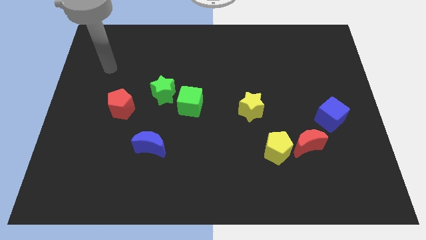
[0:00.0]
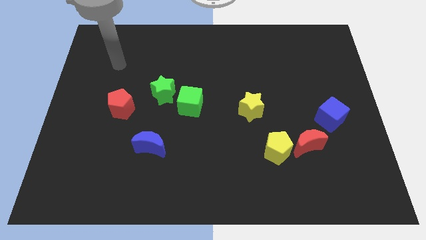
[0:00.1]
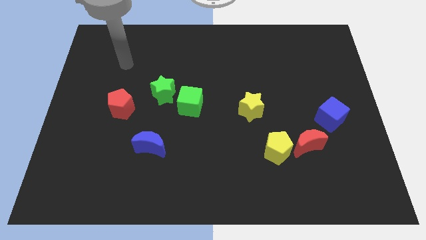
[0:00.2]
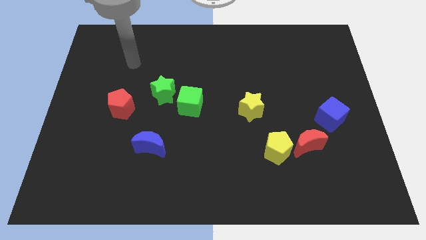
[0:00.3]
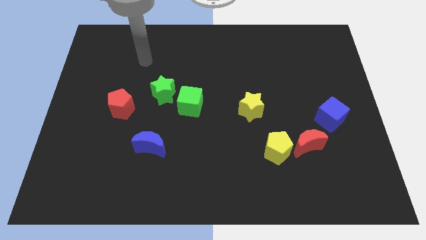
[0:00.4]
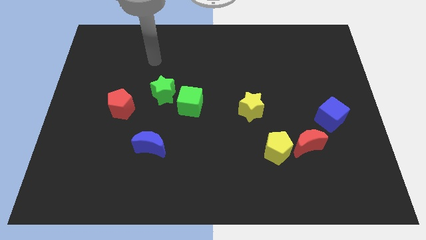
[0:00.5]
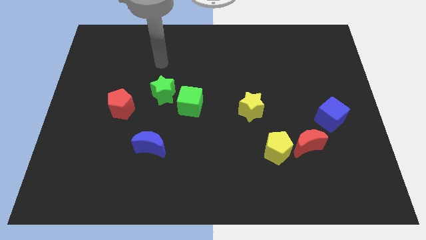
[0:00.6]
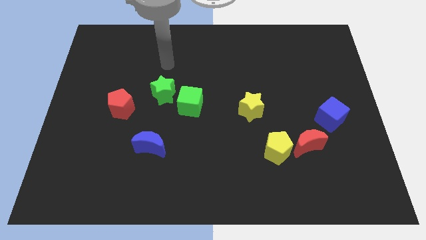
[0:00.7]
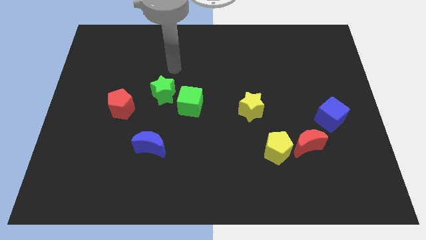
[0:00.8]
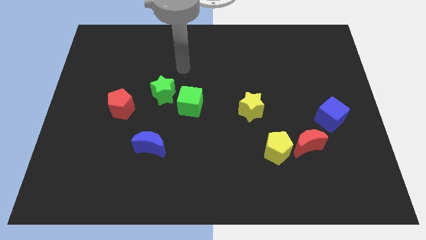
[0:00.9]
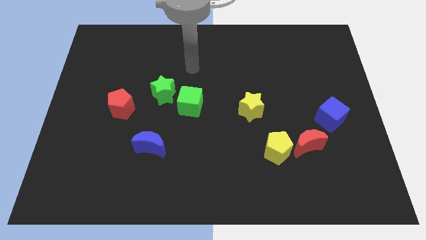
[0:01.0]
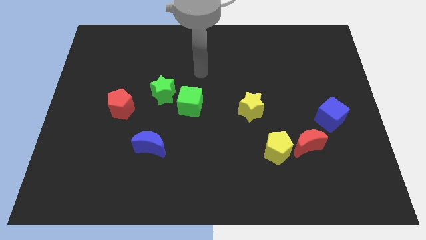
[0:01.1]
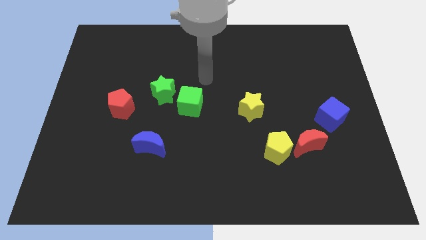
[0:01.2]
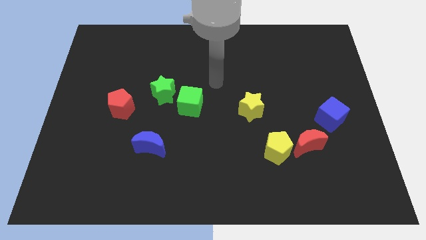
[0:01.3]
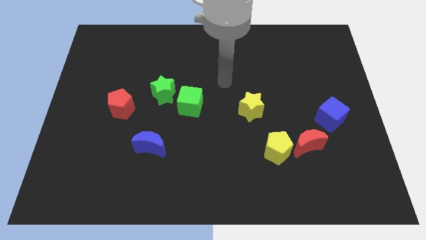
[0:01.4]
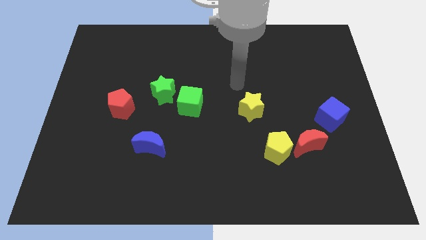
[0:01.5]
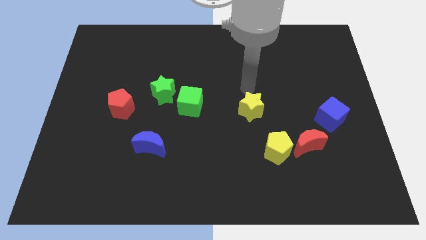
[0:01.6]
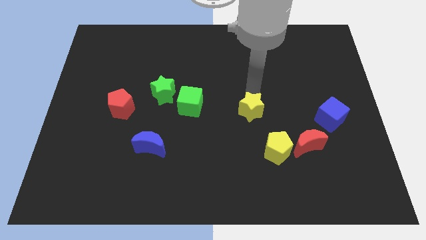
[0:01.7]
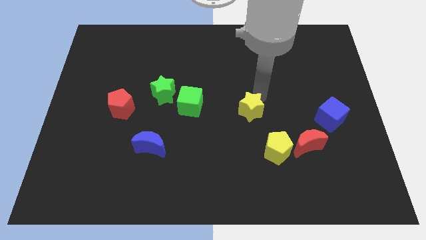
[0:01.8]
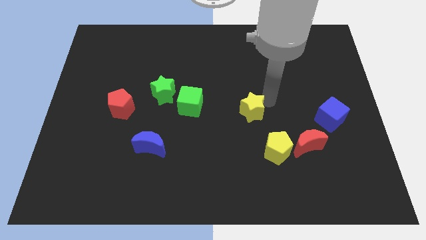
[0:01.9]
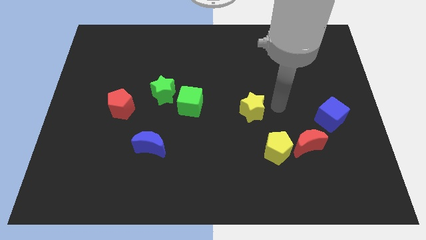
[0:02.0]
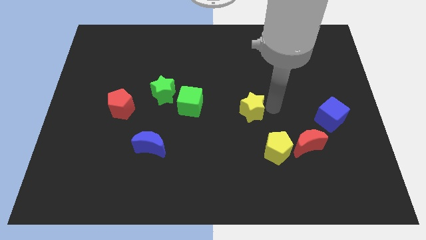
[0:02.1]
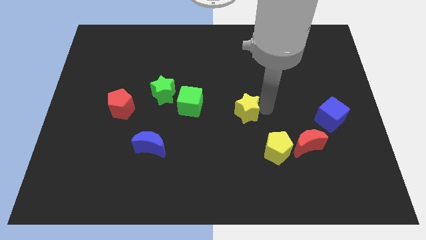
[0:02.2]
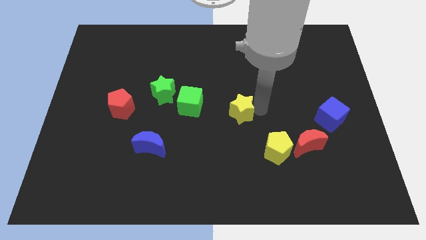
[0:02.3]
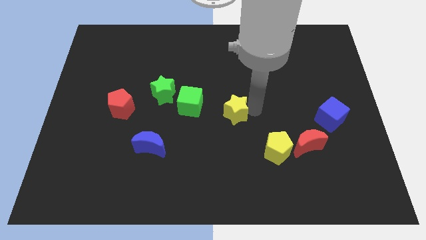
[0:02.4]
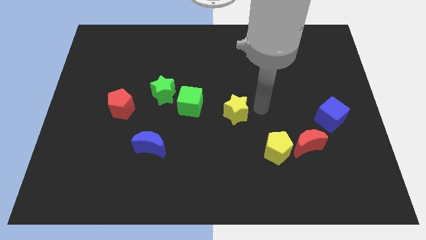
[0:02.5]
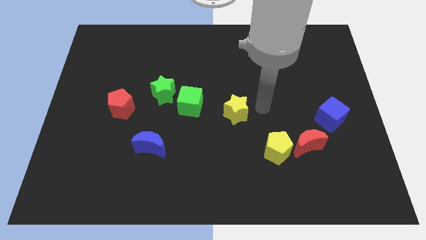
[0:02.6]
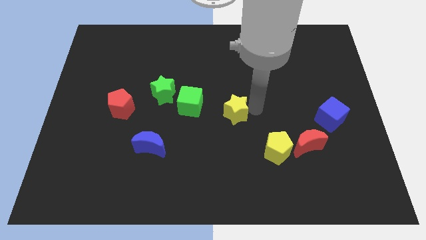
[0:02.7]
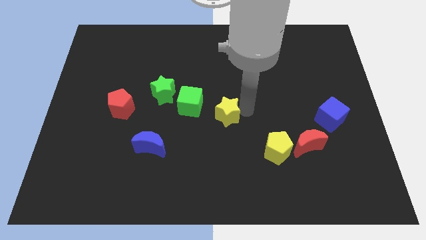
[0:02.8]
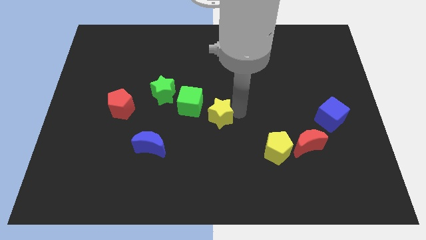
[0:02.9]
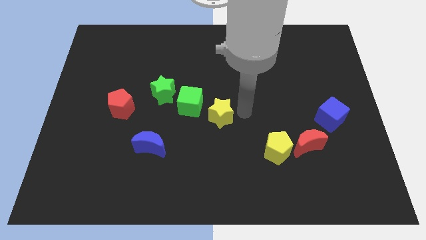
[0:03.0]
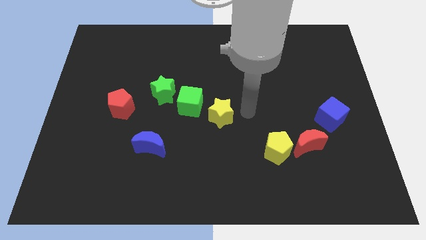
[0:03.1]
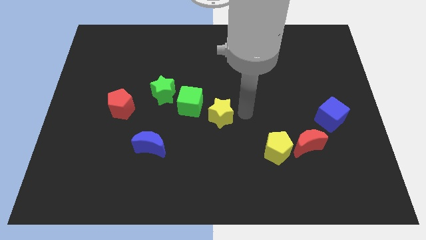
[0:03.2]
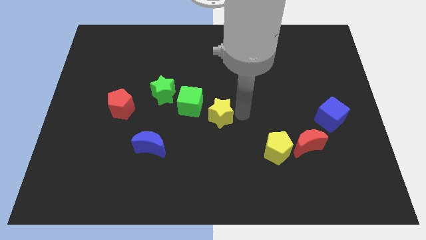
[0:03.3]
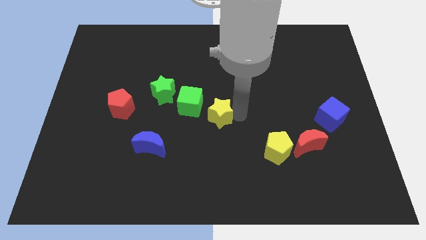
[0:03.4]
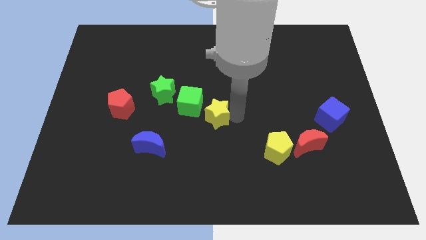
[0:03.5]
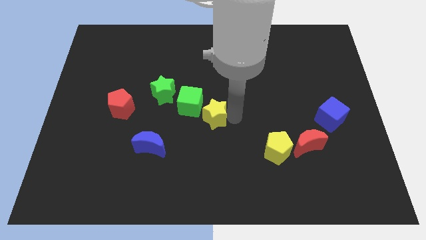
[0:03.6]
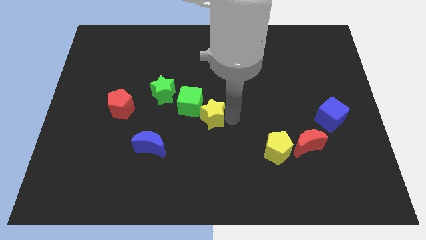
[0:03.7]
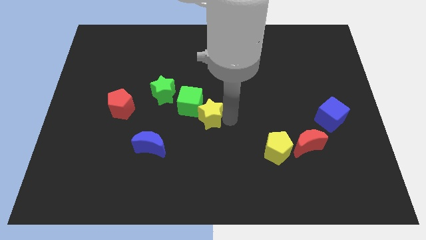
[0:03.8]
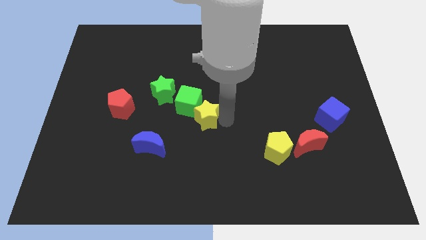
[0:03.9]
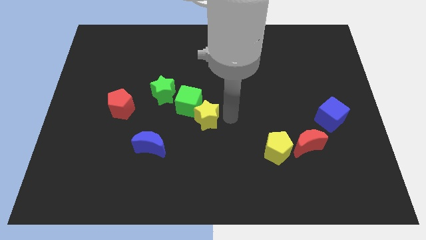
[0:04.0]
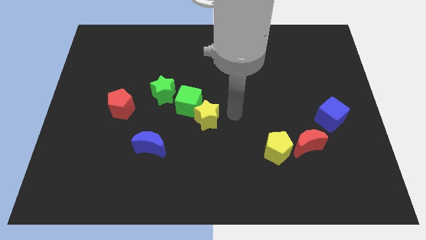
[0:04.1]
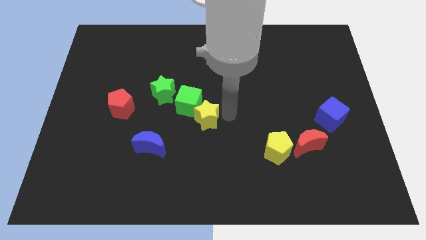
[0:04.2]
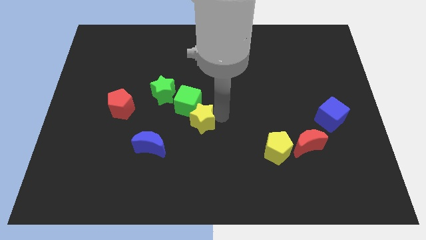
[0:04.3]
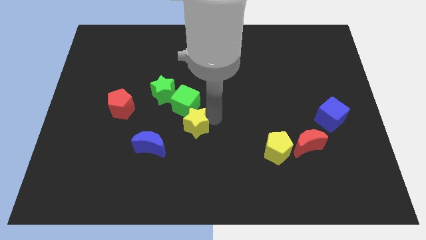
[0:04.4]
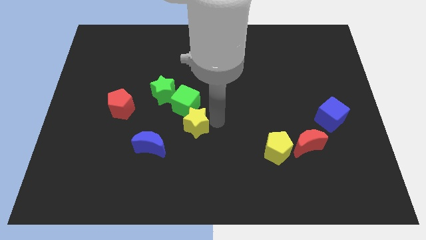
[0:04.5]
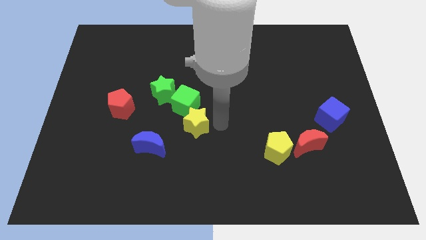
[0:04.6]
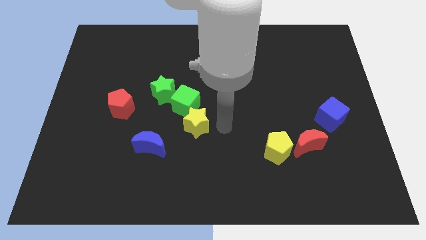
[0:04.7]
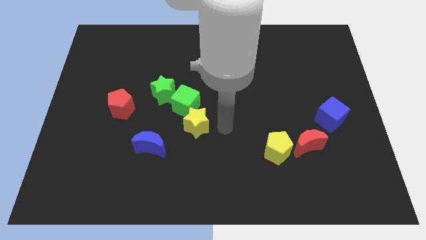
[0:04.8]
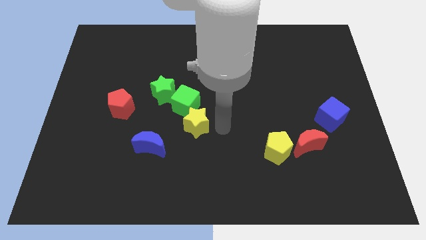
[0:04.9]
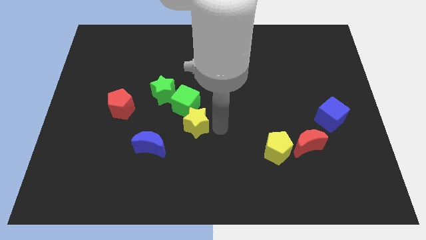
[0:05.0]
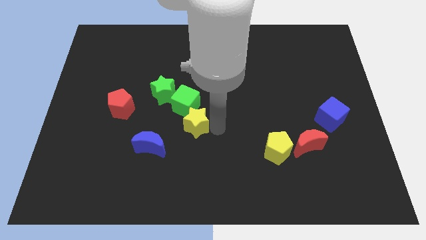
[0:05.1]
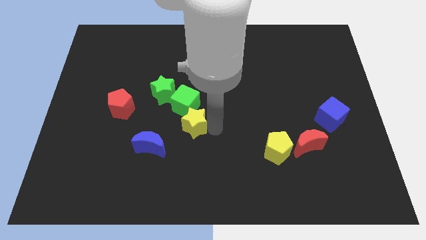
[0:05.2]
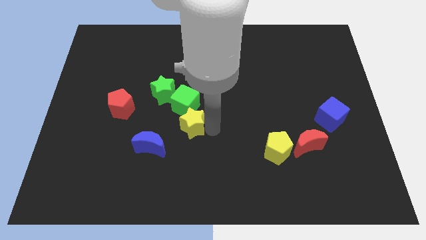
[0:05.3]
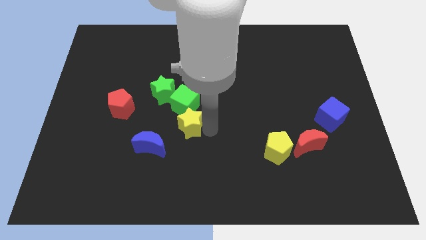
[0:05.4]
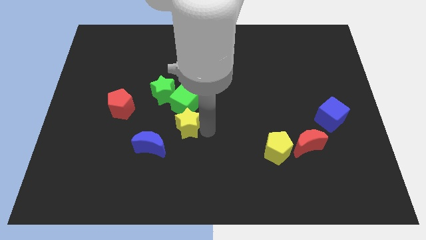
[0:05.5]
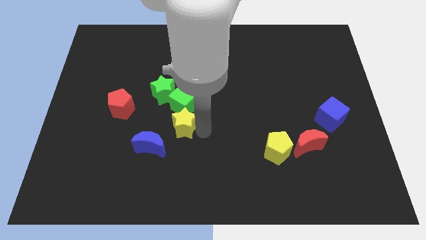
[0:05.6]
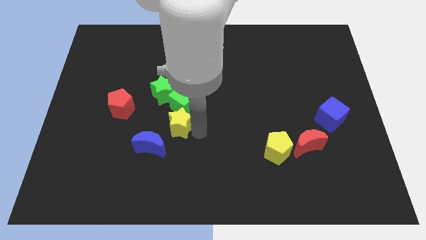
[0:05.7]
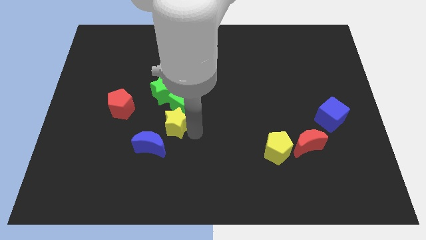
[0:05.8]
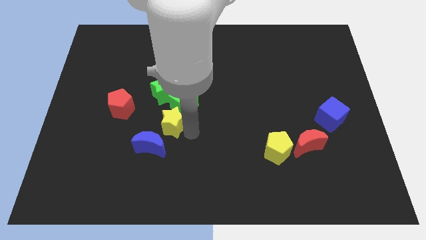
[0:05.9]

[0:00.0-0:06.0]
slide the yellow star above the blue moon

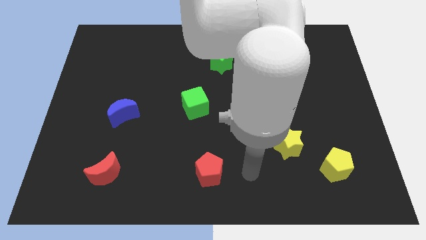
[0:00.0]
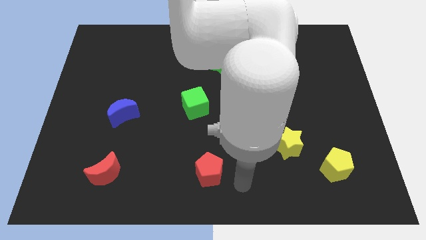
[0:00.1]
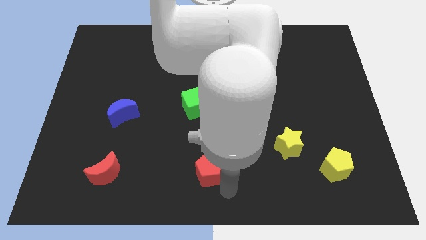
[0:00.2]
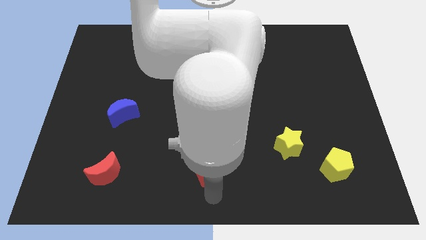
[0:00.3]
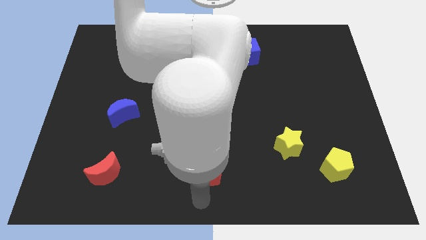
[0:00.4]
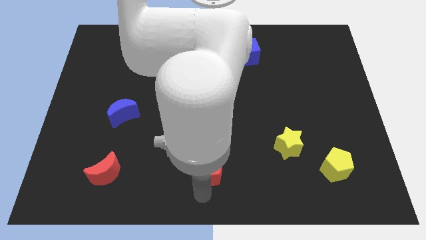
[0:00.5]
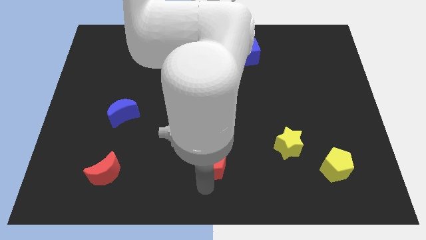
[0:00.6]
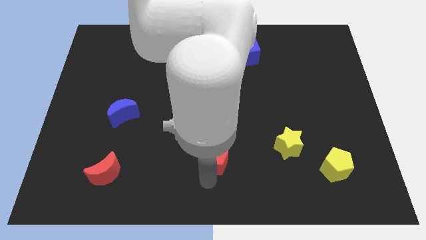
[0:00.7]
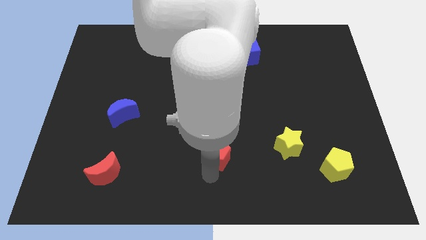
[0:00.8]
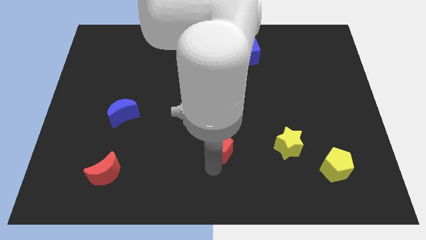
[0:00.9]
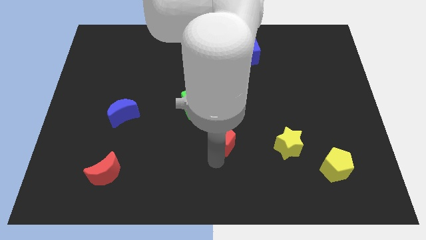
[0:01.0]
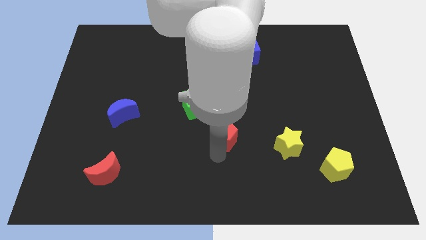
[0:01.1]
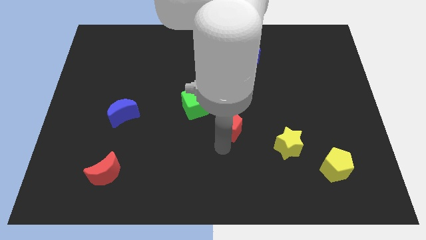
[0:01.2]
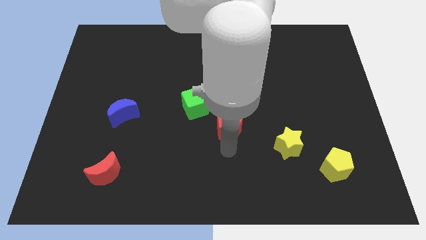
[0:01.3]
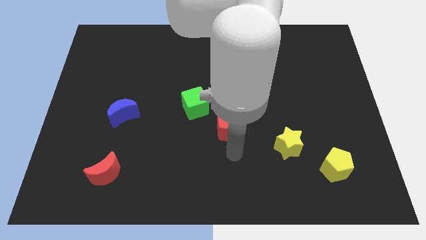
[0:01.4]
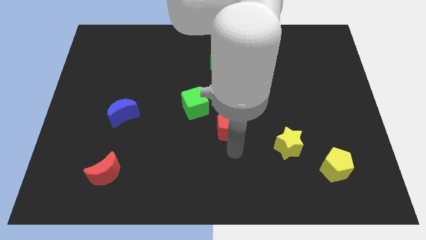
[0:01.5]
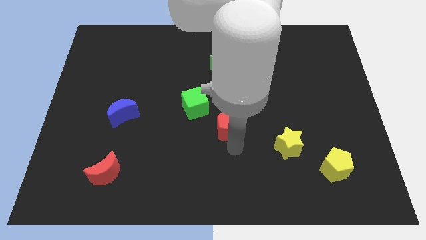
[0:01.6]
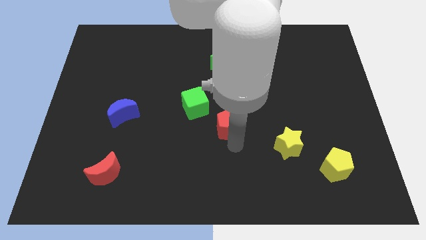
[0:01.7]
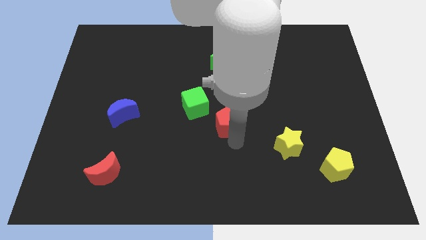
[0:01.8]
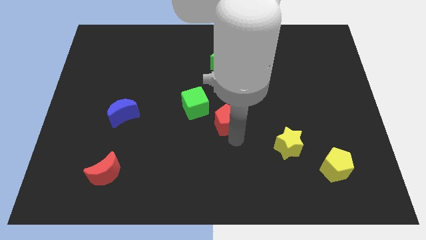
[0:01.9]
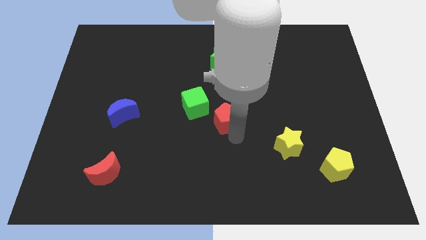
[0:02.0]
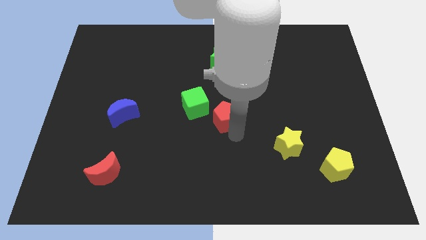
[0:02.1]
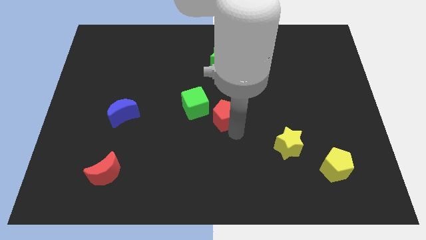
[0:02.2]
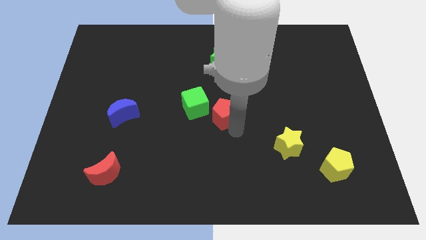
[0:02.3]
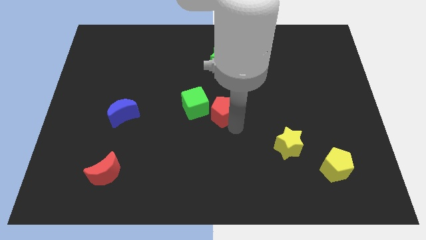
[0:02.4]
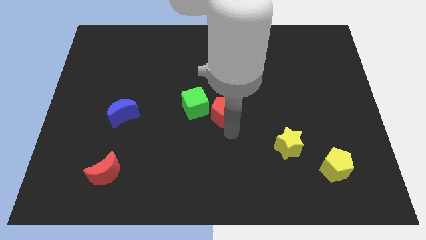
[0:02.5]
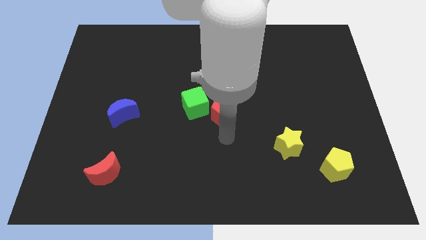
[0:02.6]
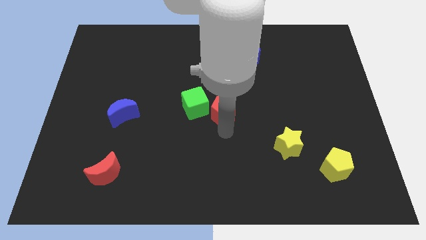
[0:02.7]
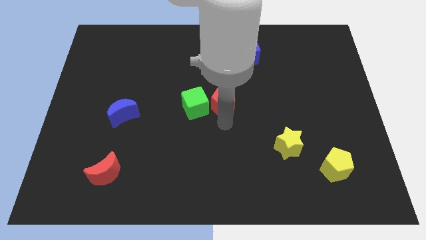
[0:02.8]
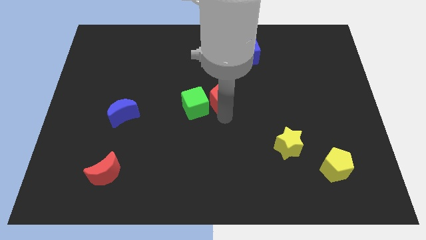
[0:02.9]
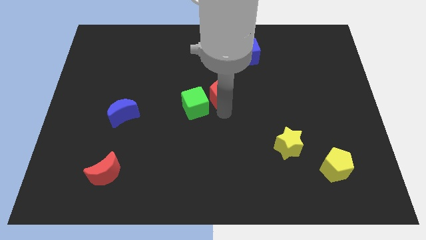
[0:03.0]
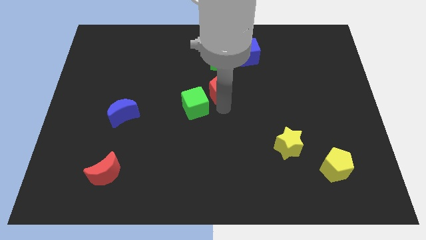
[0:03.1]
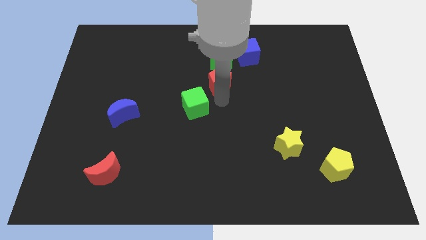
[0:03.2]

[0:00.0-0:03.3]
slide the red pentagon diagonally down and to the left of the blue cube
